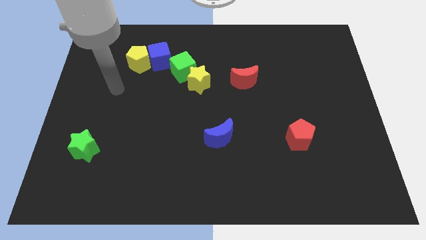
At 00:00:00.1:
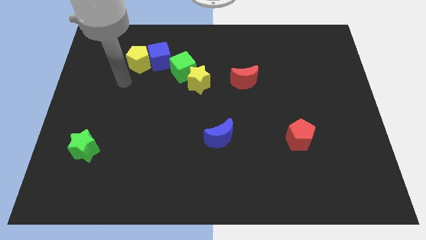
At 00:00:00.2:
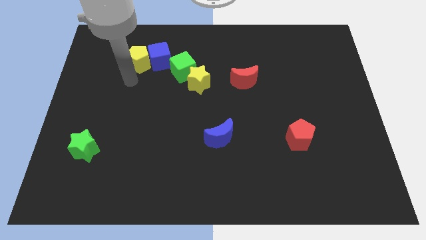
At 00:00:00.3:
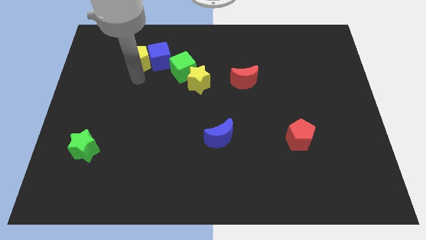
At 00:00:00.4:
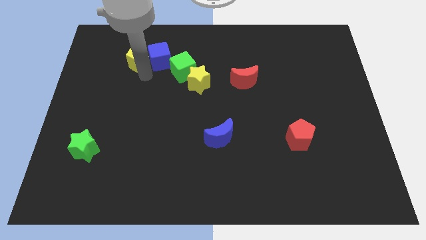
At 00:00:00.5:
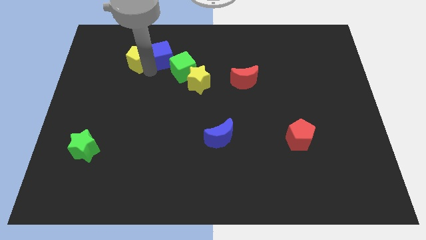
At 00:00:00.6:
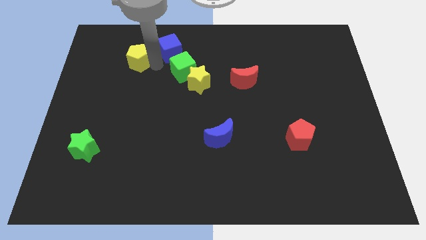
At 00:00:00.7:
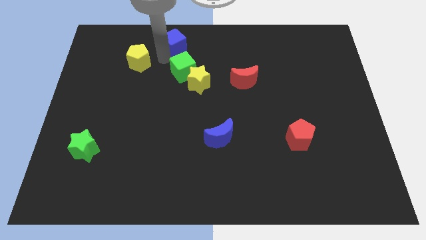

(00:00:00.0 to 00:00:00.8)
pull the yellow pentagon apart from the blue cube

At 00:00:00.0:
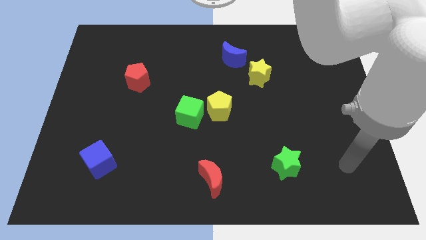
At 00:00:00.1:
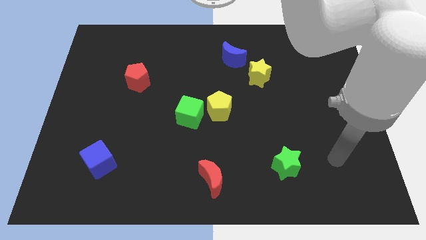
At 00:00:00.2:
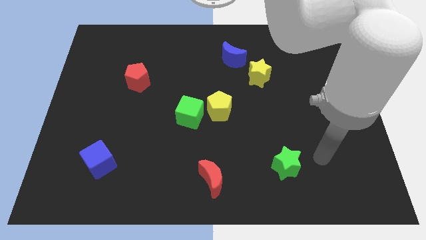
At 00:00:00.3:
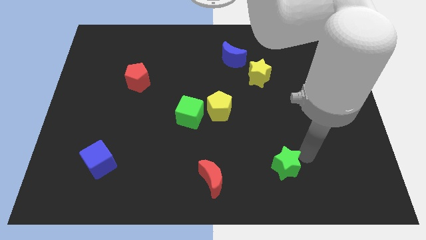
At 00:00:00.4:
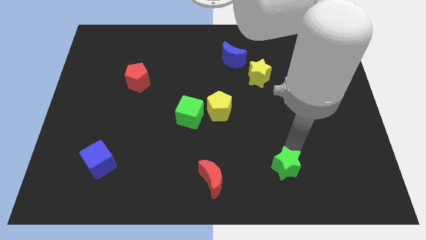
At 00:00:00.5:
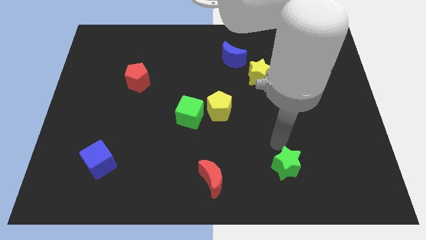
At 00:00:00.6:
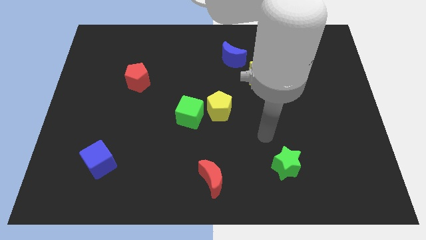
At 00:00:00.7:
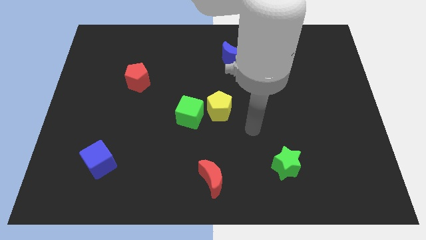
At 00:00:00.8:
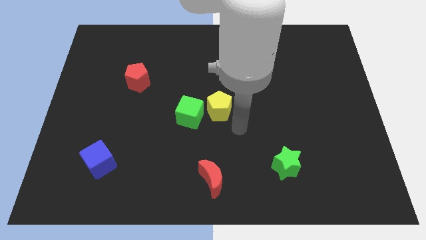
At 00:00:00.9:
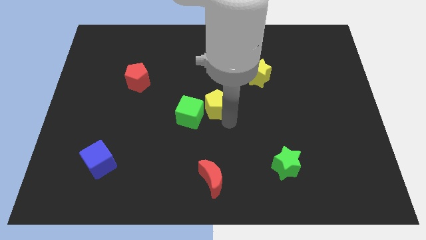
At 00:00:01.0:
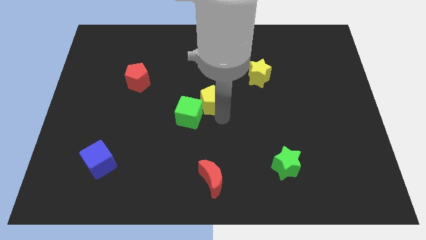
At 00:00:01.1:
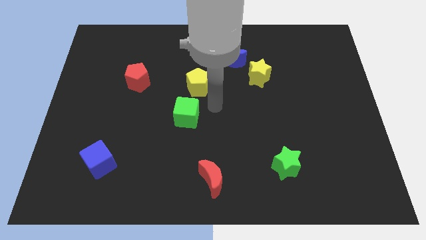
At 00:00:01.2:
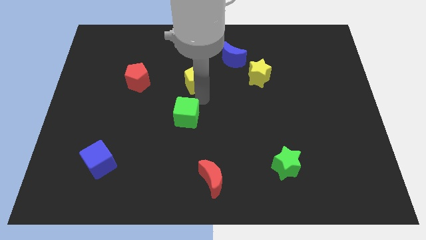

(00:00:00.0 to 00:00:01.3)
pull the green cube apart from the yellow pentagon

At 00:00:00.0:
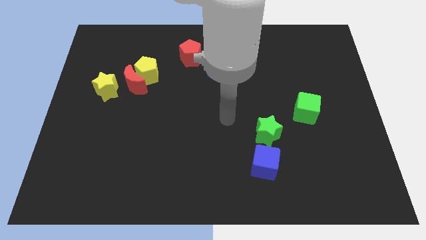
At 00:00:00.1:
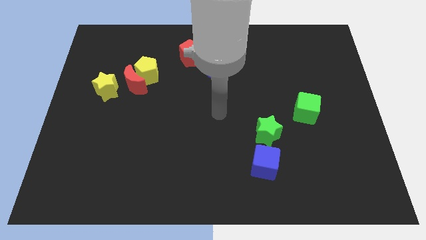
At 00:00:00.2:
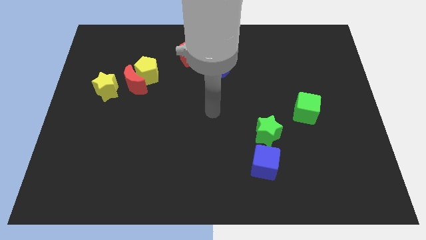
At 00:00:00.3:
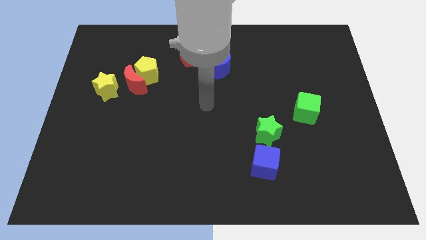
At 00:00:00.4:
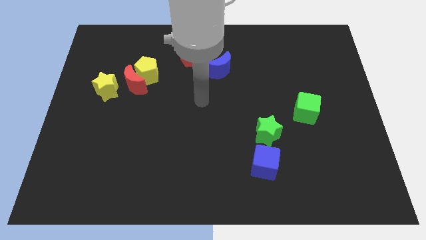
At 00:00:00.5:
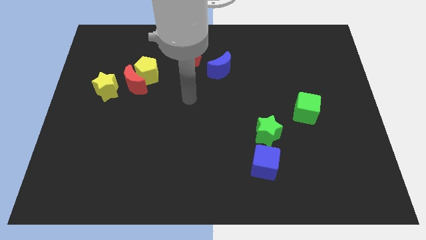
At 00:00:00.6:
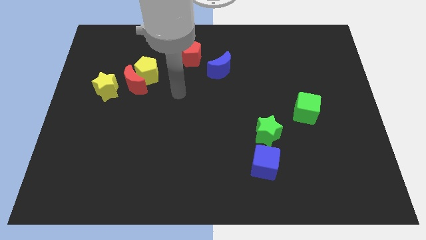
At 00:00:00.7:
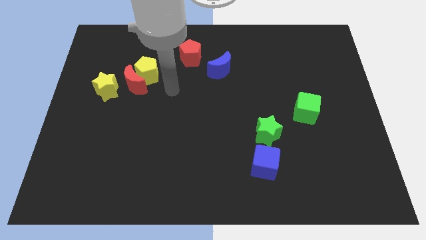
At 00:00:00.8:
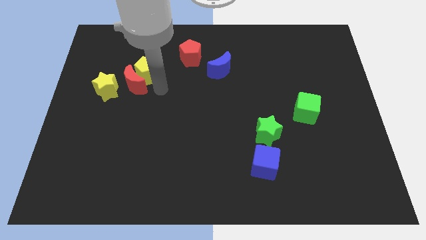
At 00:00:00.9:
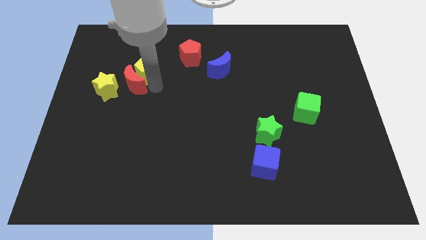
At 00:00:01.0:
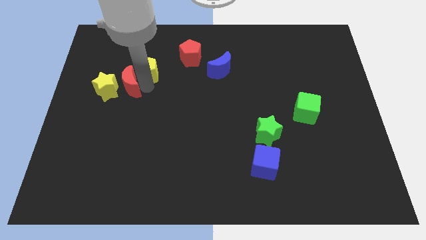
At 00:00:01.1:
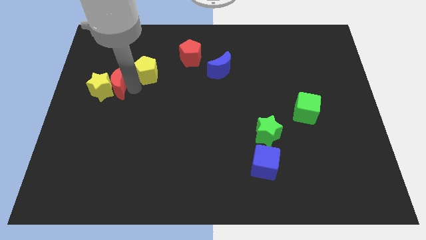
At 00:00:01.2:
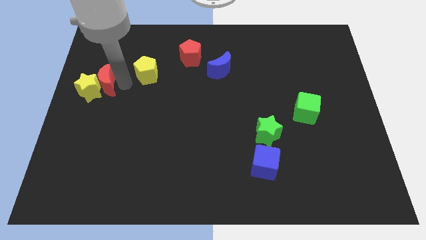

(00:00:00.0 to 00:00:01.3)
pull the yellow pentagon apart from the red moon

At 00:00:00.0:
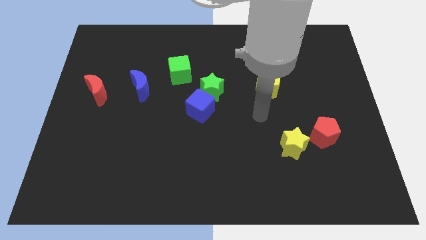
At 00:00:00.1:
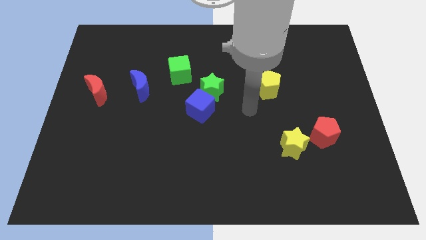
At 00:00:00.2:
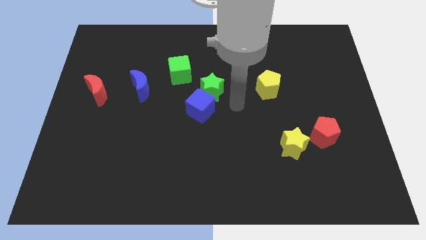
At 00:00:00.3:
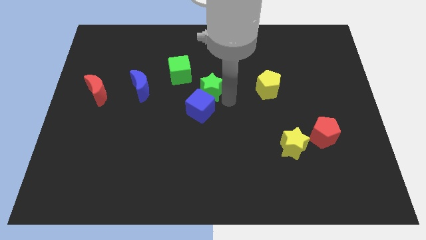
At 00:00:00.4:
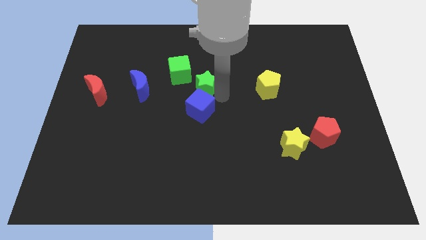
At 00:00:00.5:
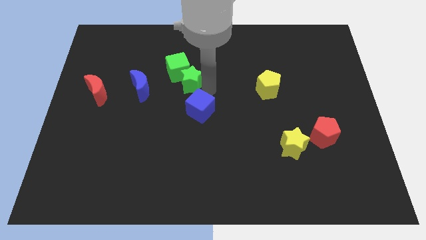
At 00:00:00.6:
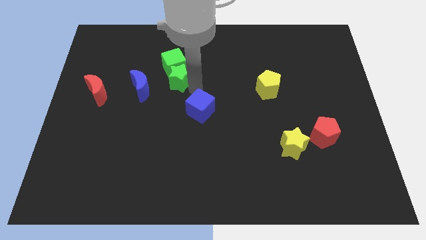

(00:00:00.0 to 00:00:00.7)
pull the blue cube apart from the green star

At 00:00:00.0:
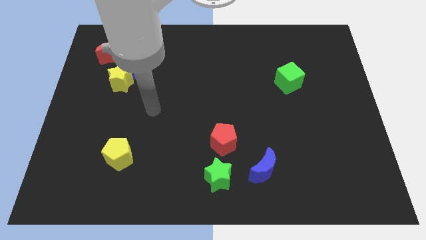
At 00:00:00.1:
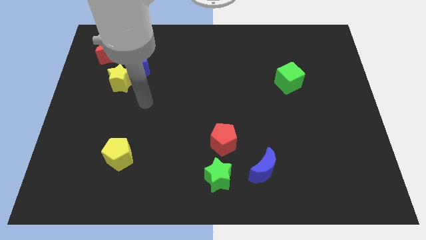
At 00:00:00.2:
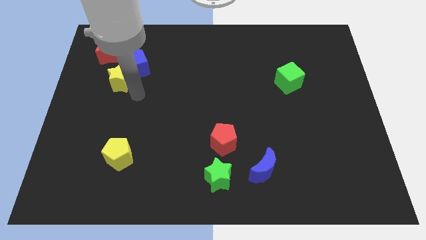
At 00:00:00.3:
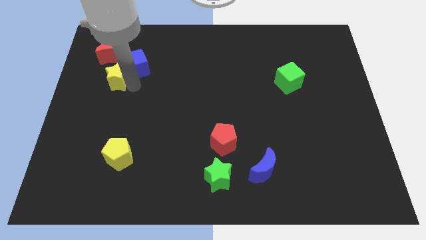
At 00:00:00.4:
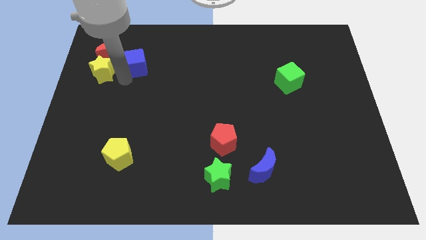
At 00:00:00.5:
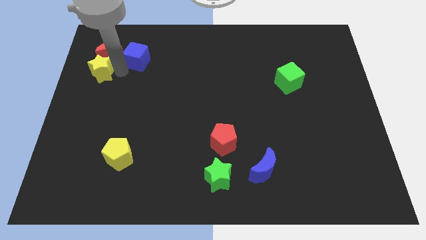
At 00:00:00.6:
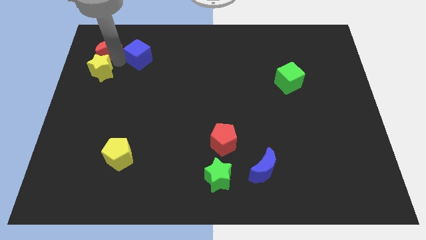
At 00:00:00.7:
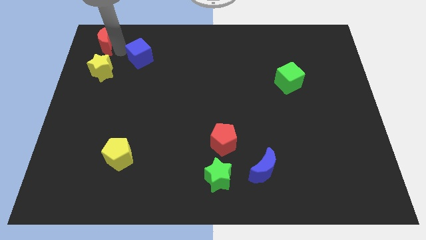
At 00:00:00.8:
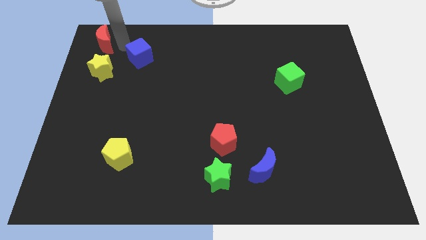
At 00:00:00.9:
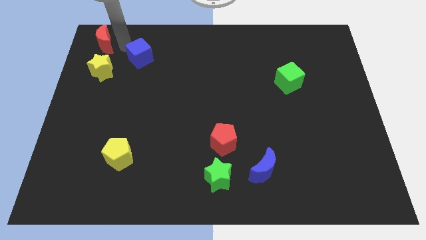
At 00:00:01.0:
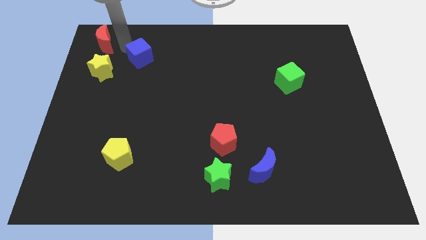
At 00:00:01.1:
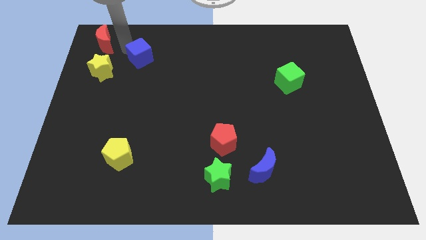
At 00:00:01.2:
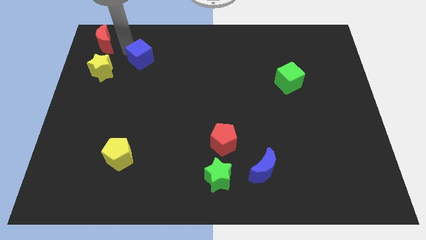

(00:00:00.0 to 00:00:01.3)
pull the blue cube apart from the yellow star and red moon

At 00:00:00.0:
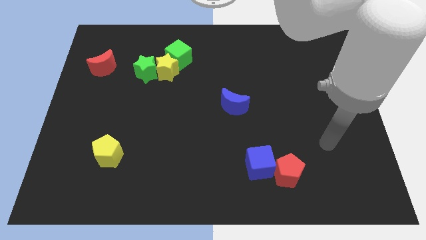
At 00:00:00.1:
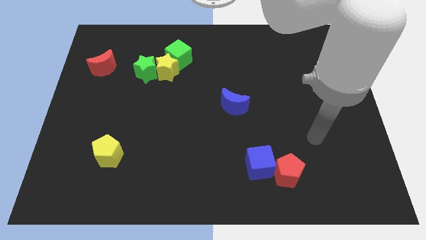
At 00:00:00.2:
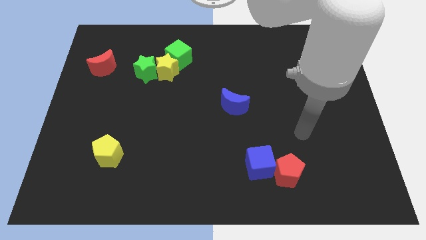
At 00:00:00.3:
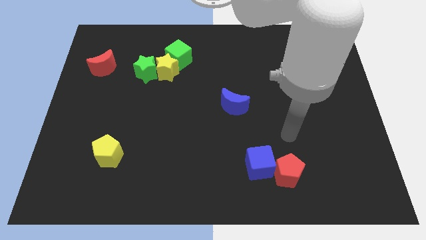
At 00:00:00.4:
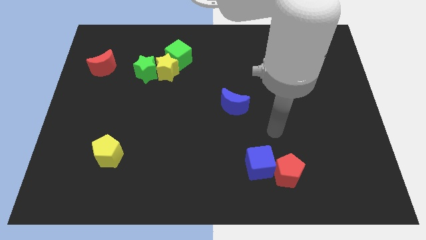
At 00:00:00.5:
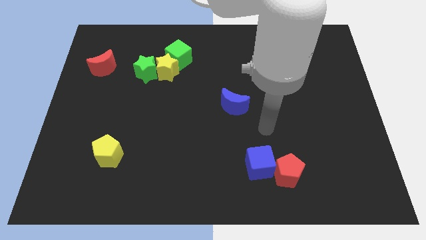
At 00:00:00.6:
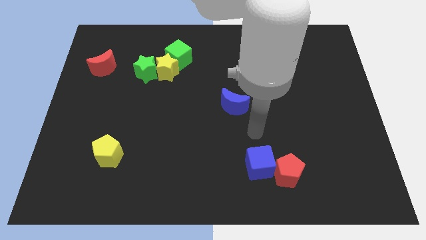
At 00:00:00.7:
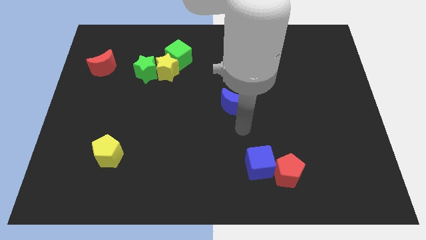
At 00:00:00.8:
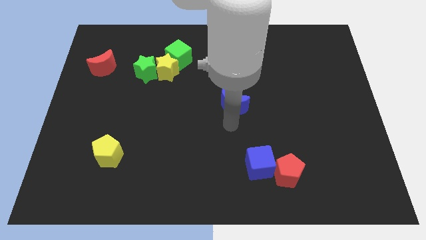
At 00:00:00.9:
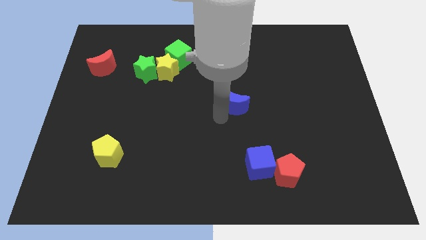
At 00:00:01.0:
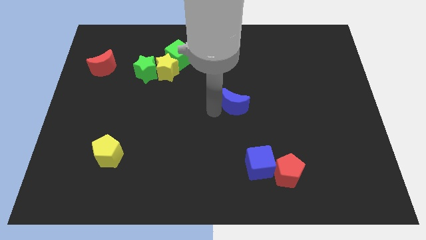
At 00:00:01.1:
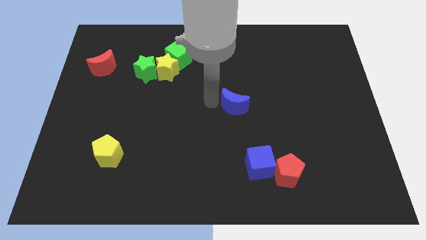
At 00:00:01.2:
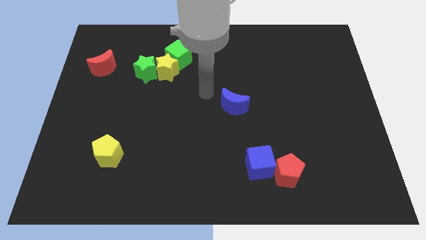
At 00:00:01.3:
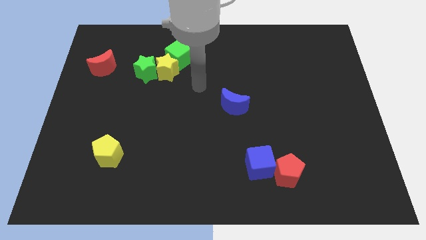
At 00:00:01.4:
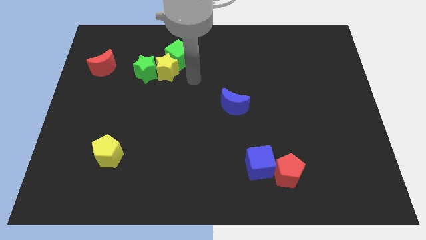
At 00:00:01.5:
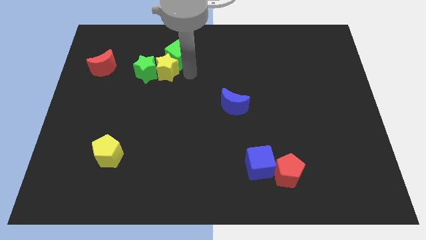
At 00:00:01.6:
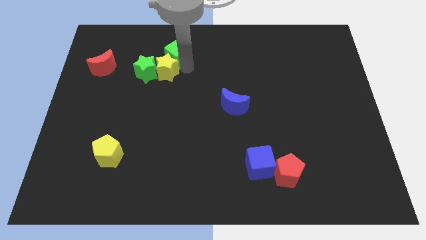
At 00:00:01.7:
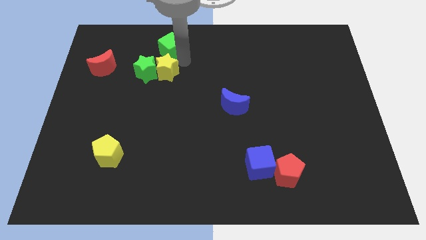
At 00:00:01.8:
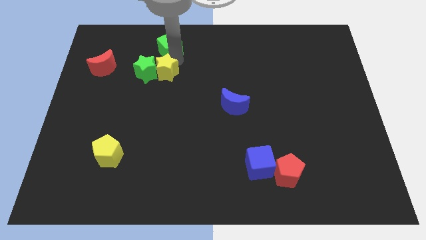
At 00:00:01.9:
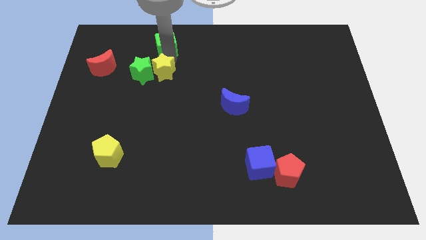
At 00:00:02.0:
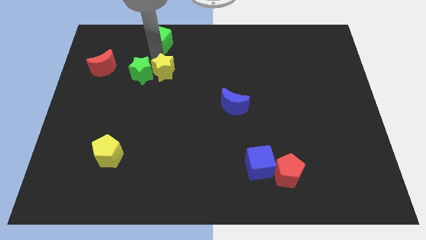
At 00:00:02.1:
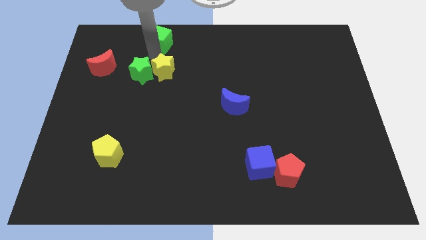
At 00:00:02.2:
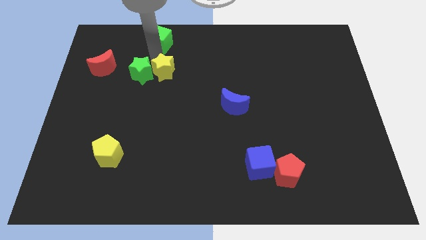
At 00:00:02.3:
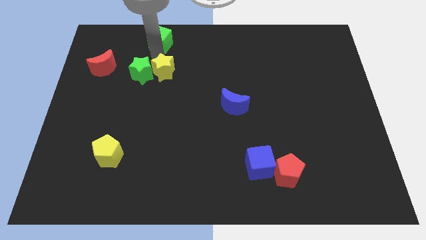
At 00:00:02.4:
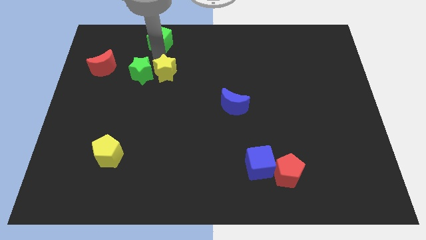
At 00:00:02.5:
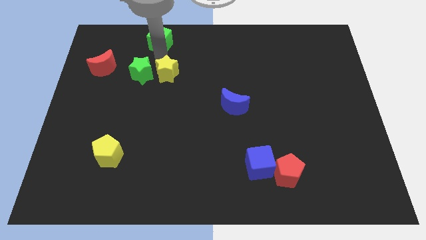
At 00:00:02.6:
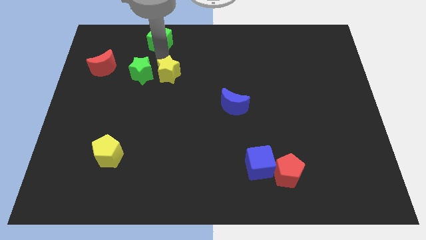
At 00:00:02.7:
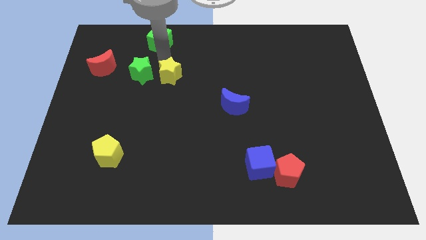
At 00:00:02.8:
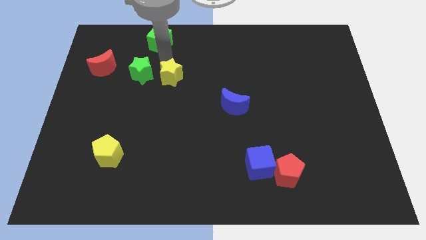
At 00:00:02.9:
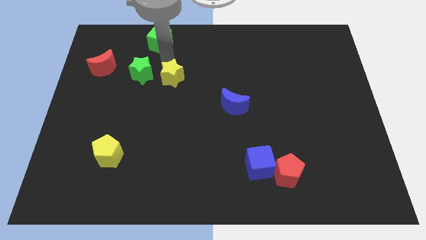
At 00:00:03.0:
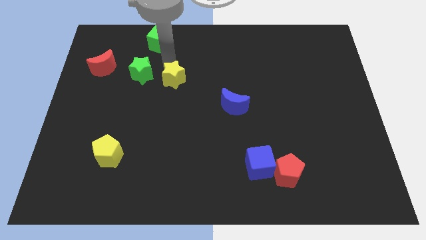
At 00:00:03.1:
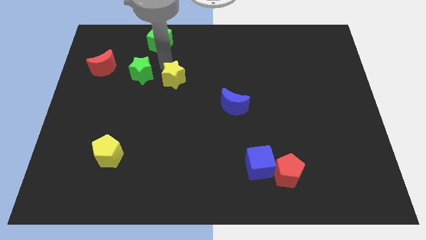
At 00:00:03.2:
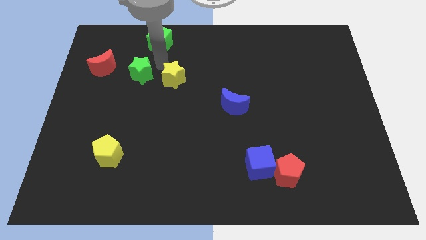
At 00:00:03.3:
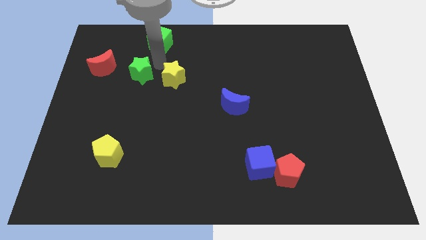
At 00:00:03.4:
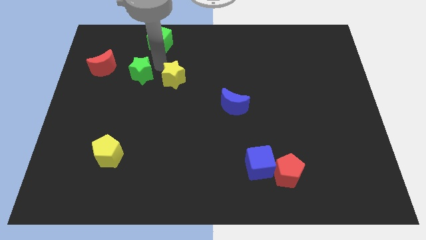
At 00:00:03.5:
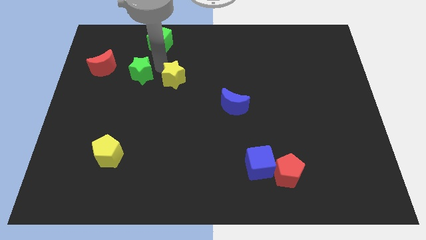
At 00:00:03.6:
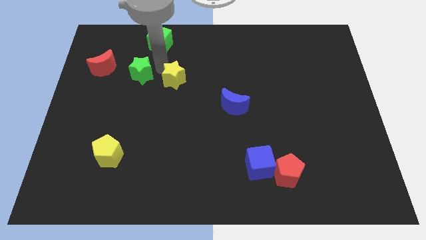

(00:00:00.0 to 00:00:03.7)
move the yellow star away from the green star and green cube
